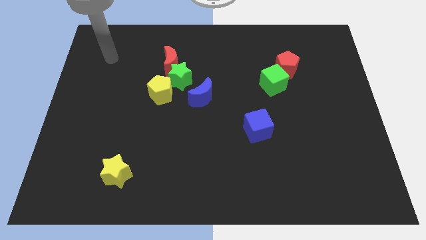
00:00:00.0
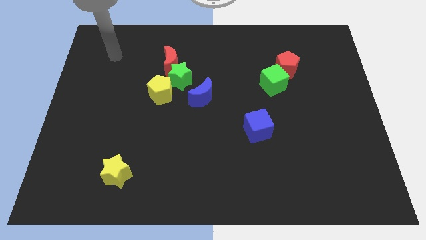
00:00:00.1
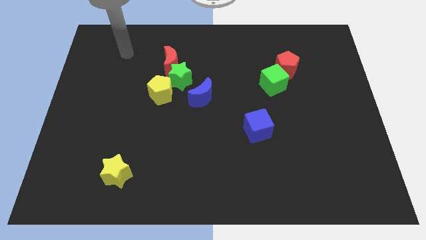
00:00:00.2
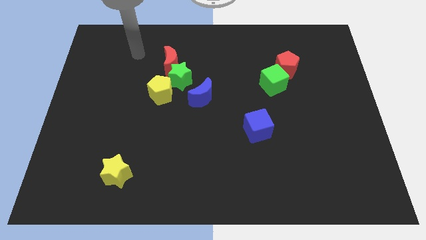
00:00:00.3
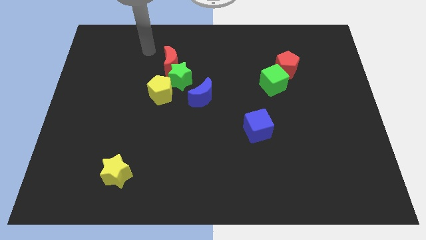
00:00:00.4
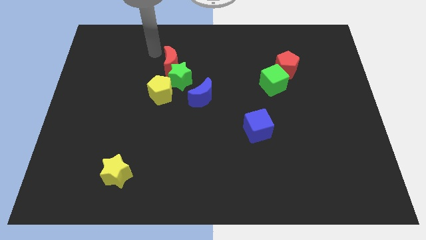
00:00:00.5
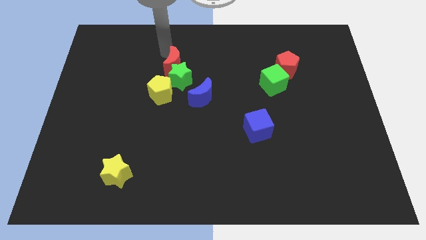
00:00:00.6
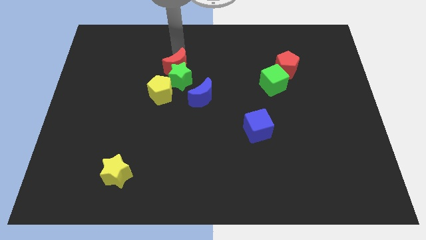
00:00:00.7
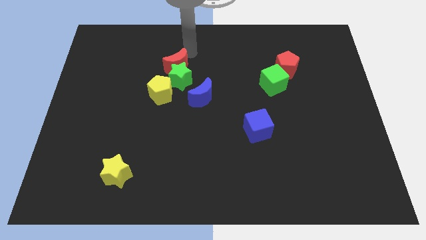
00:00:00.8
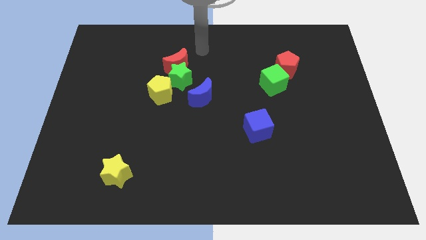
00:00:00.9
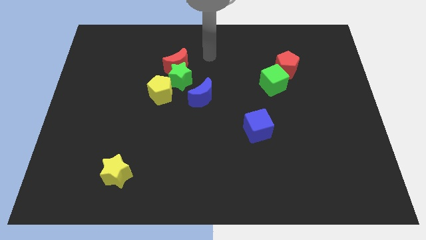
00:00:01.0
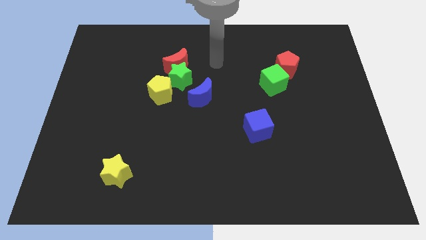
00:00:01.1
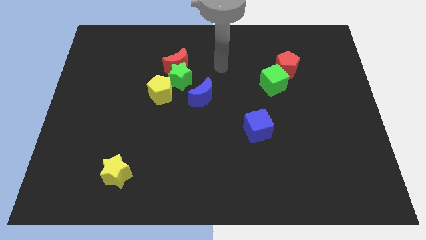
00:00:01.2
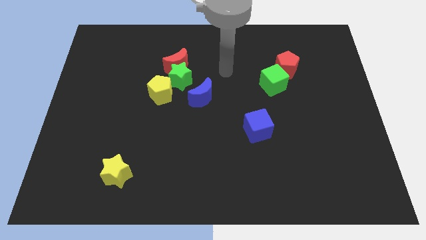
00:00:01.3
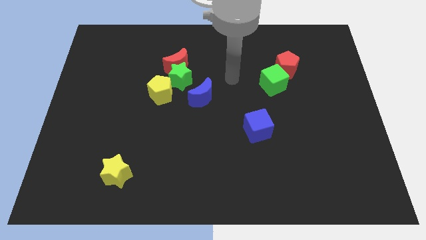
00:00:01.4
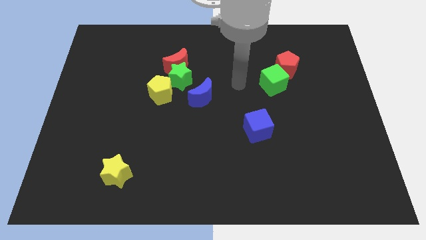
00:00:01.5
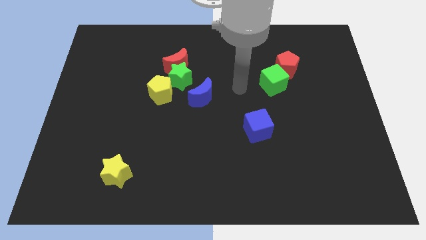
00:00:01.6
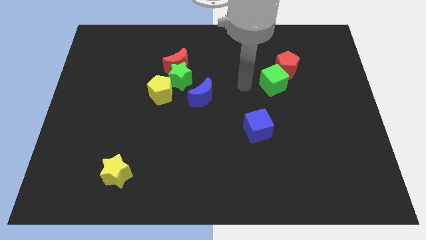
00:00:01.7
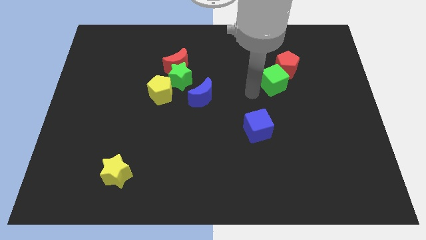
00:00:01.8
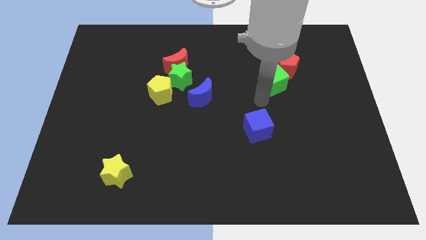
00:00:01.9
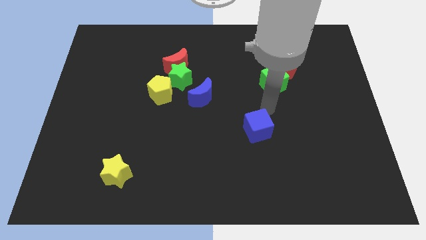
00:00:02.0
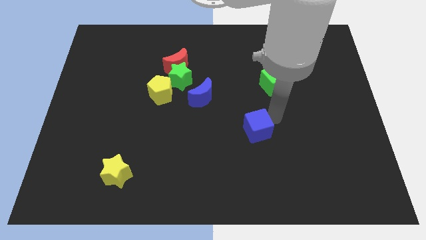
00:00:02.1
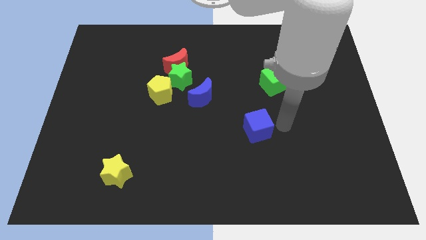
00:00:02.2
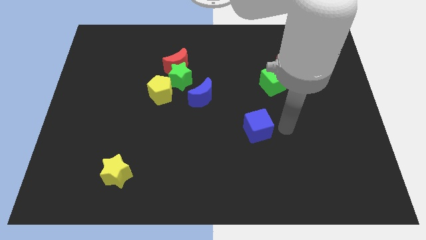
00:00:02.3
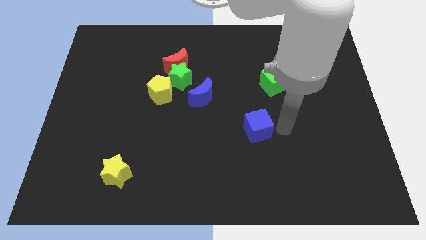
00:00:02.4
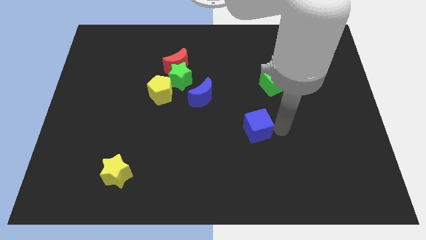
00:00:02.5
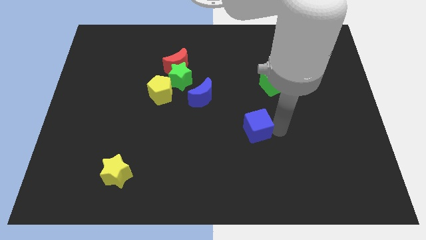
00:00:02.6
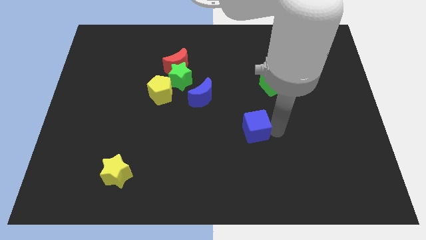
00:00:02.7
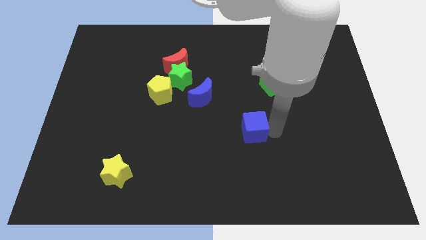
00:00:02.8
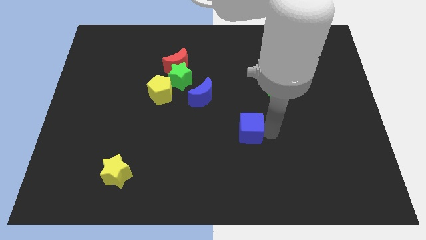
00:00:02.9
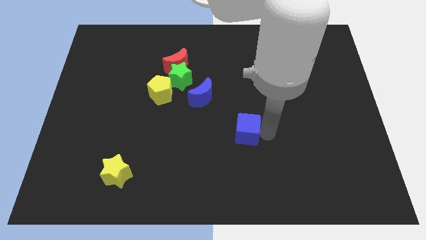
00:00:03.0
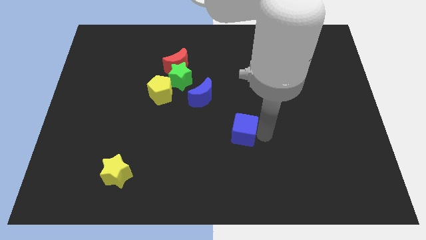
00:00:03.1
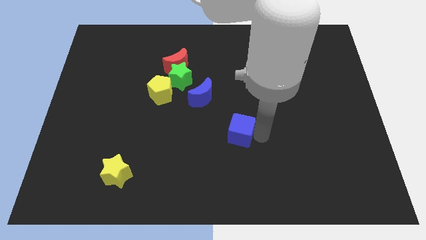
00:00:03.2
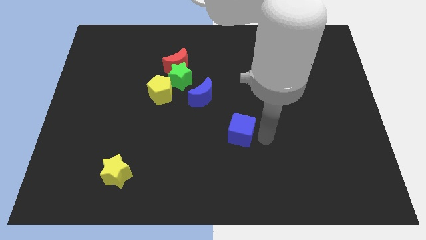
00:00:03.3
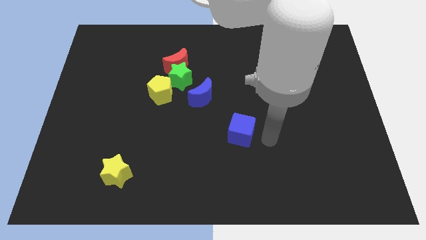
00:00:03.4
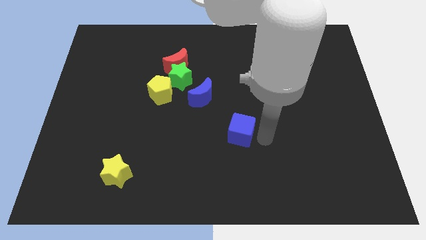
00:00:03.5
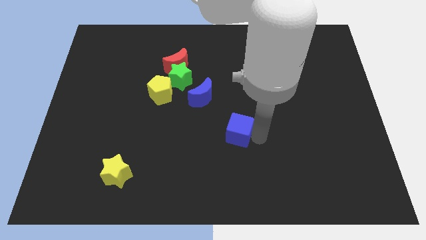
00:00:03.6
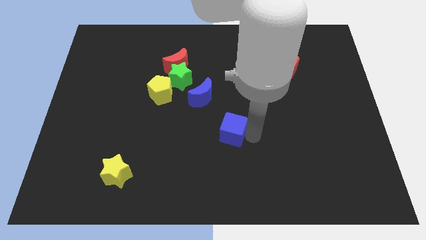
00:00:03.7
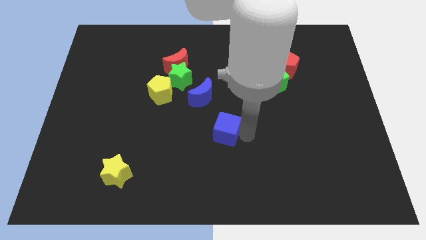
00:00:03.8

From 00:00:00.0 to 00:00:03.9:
move the blue cube a little to the left

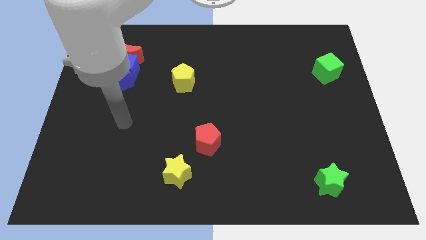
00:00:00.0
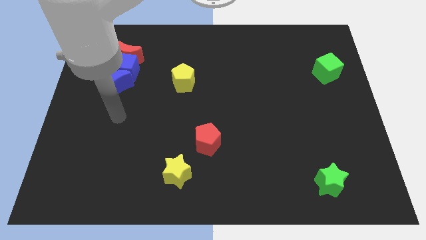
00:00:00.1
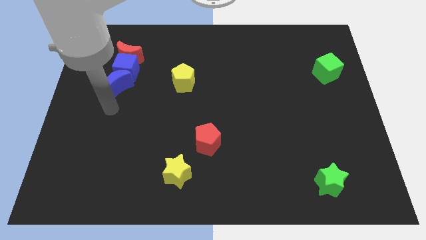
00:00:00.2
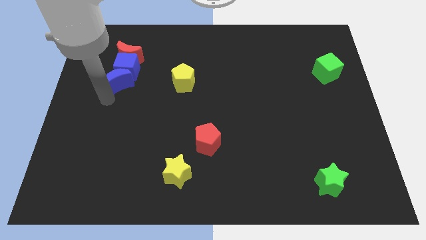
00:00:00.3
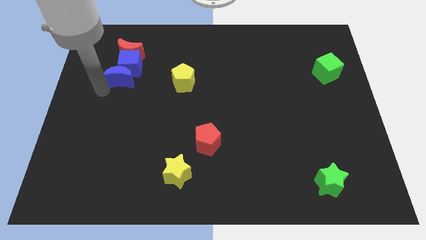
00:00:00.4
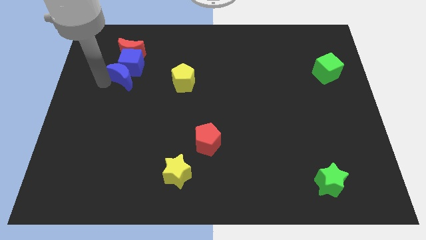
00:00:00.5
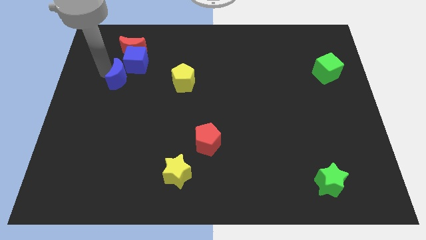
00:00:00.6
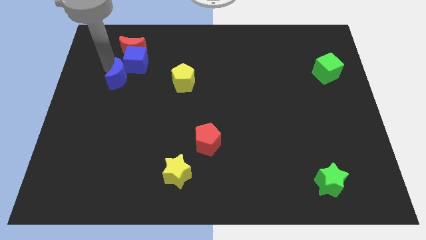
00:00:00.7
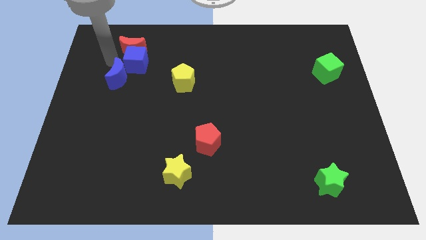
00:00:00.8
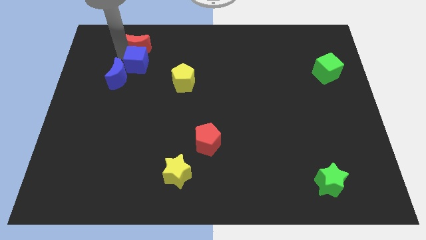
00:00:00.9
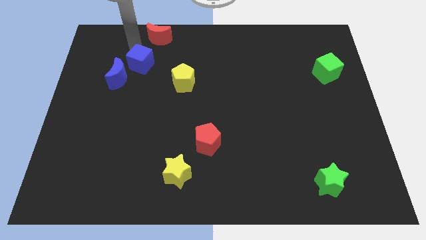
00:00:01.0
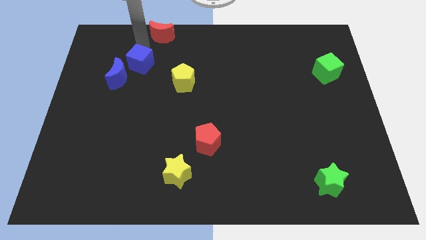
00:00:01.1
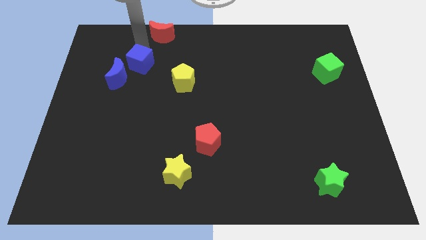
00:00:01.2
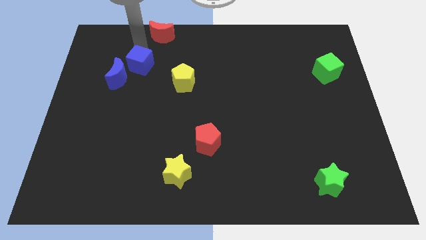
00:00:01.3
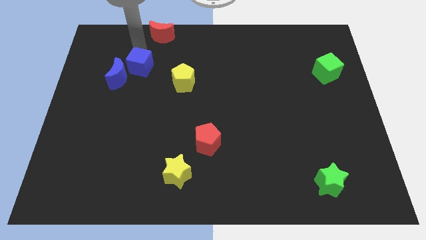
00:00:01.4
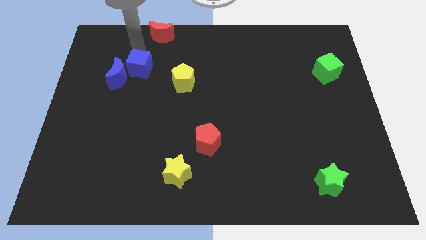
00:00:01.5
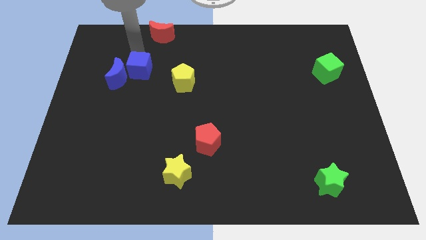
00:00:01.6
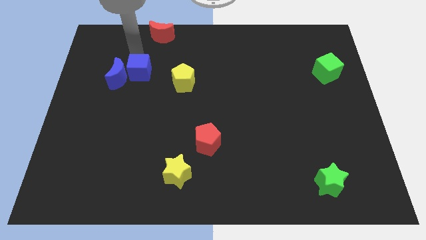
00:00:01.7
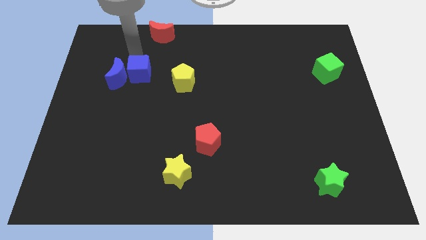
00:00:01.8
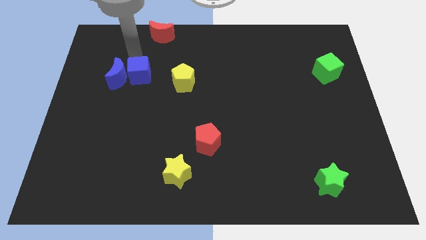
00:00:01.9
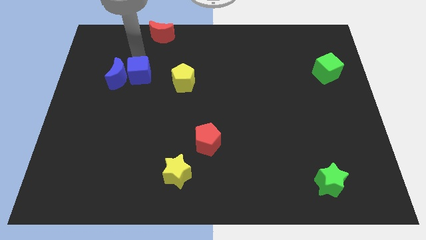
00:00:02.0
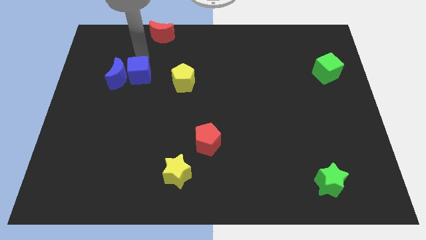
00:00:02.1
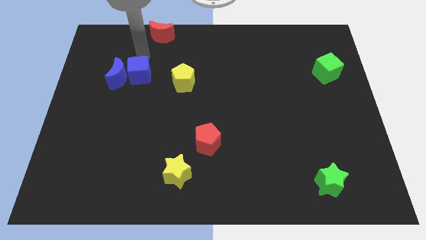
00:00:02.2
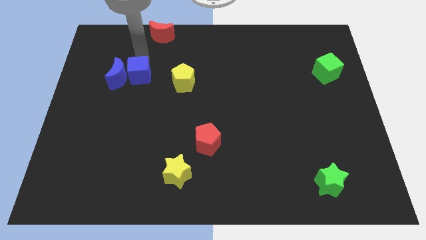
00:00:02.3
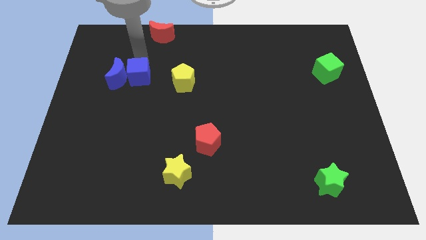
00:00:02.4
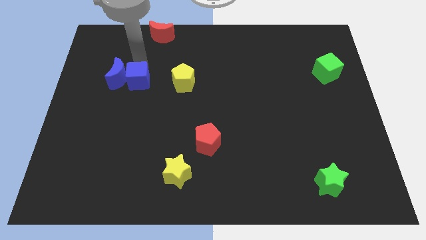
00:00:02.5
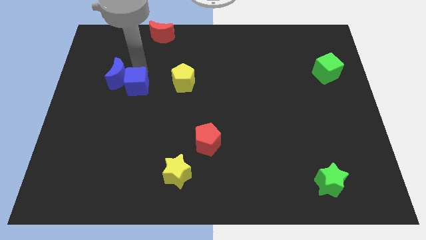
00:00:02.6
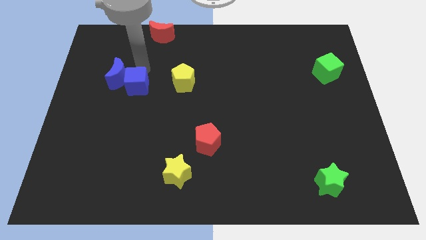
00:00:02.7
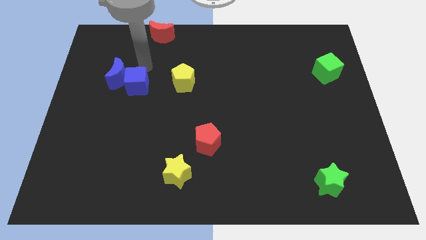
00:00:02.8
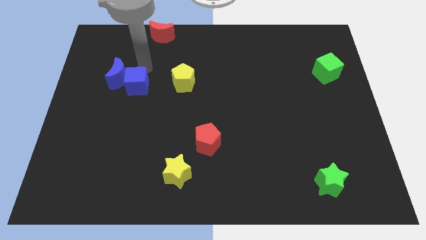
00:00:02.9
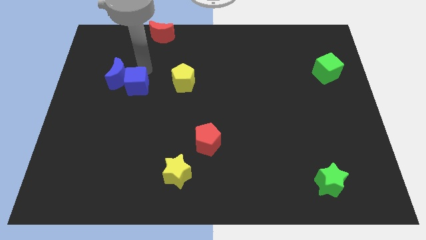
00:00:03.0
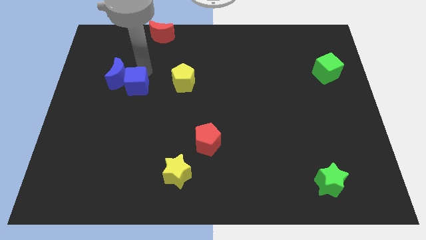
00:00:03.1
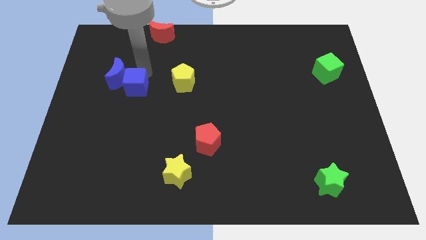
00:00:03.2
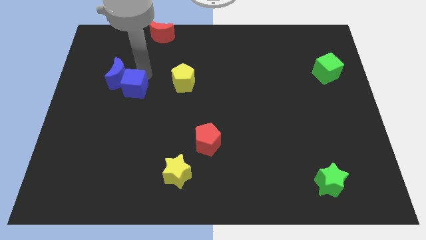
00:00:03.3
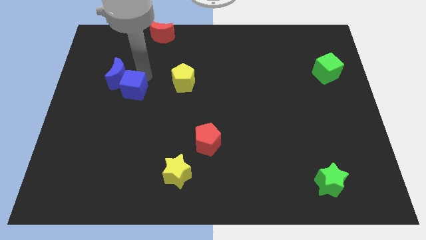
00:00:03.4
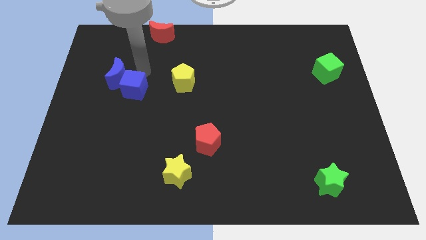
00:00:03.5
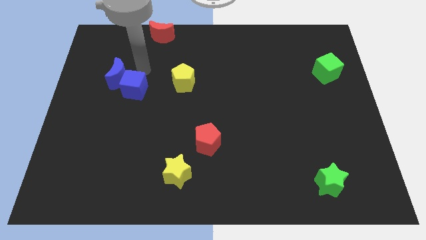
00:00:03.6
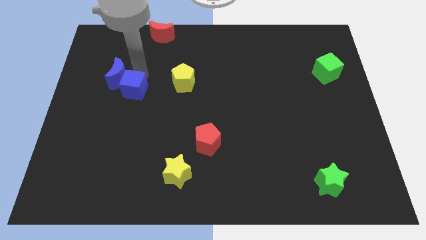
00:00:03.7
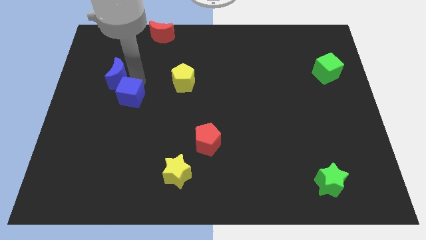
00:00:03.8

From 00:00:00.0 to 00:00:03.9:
move the blue cube down slightly
